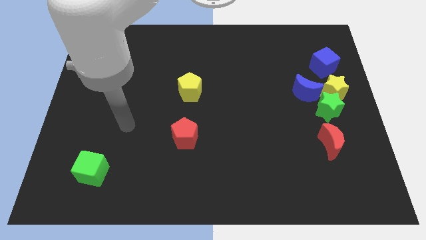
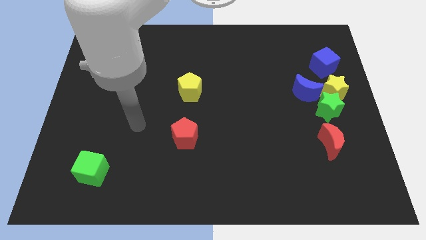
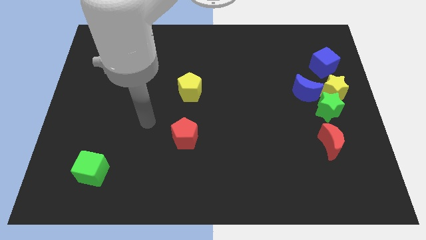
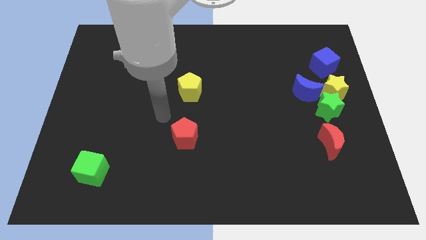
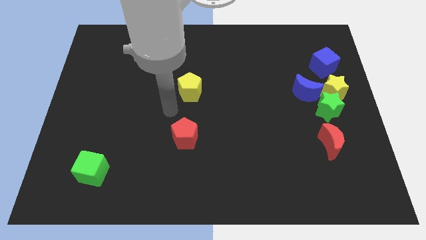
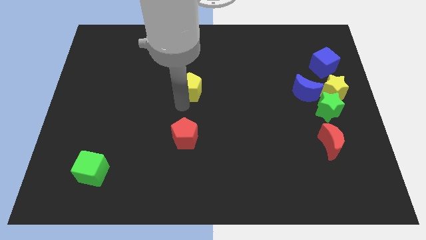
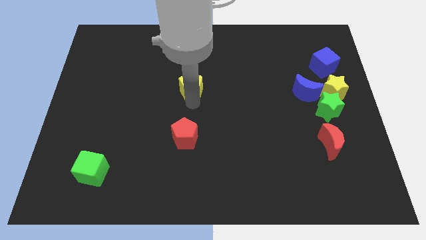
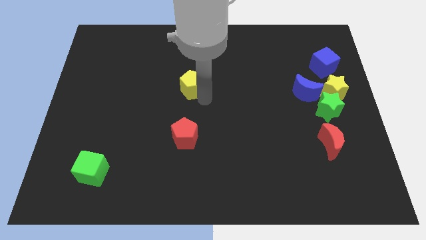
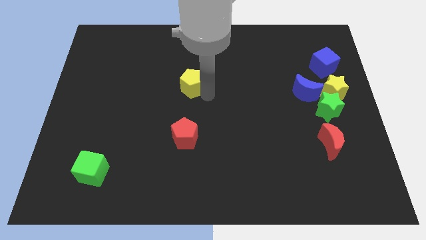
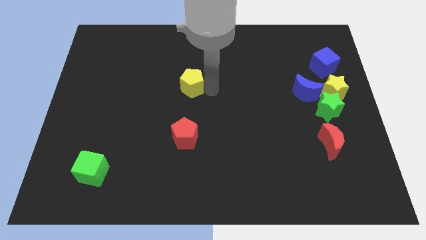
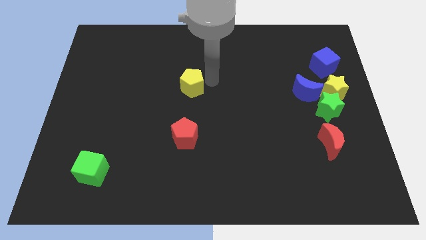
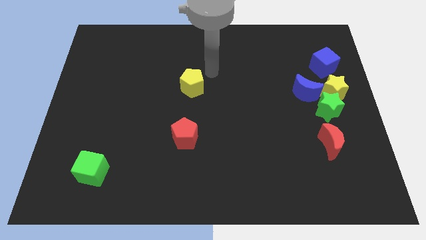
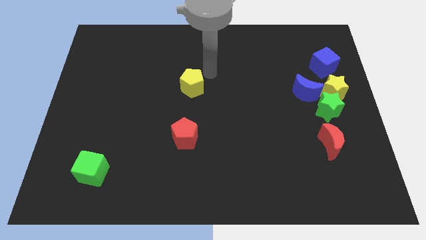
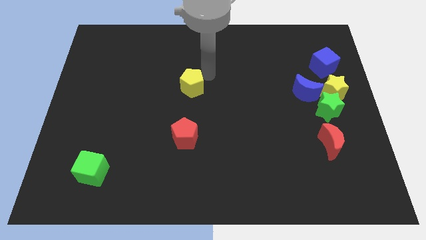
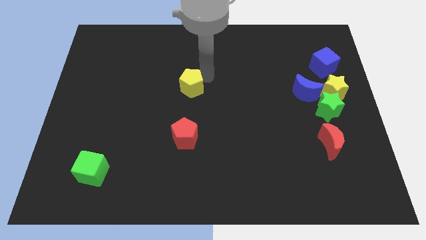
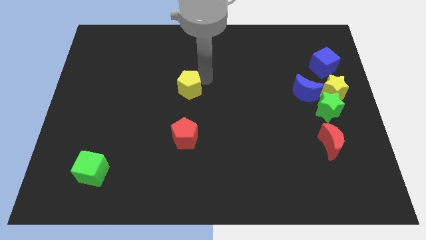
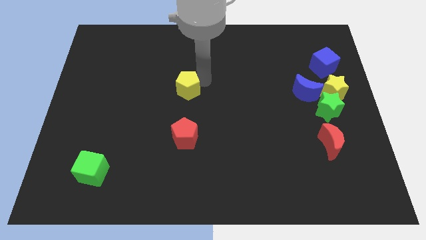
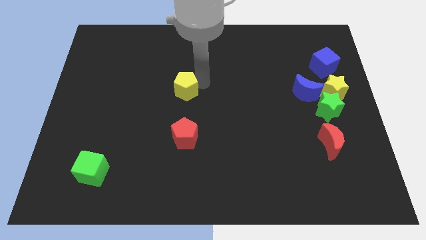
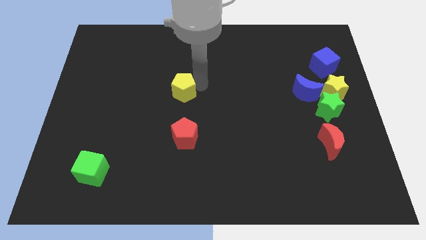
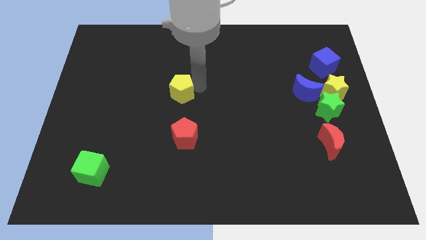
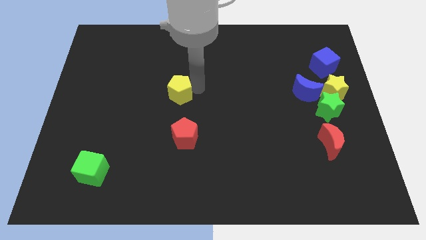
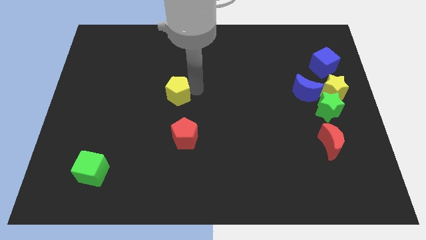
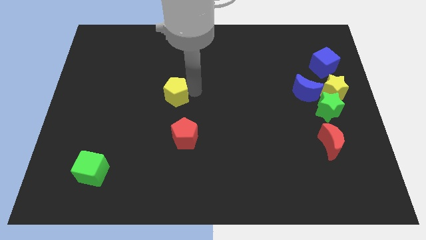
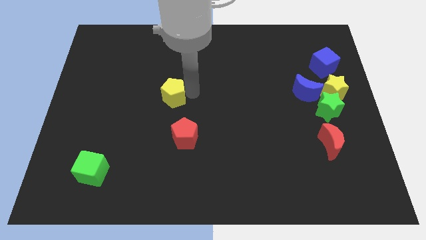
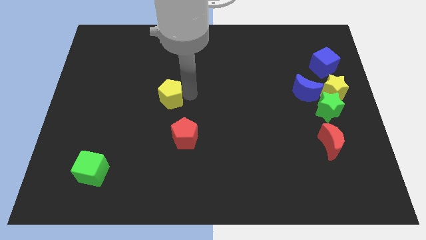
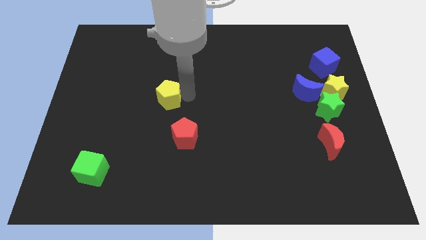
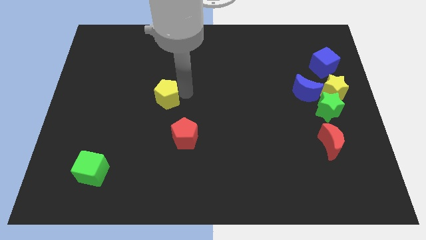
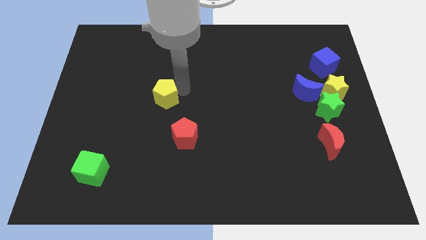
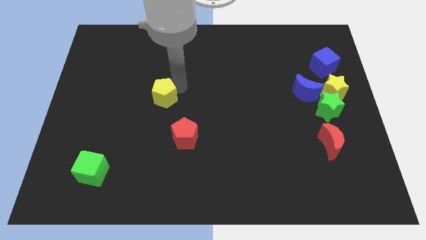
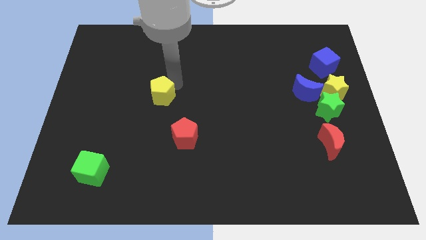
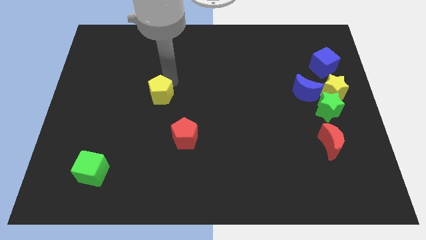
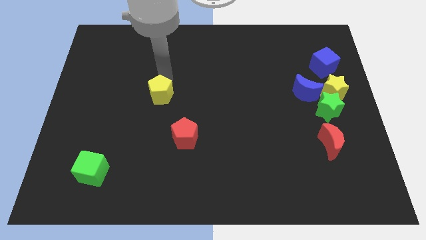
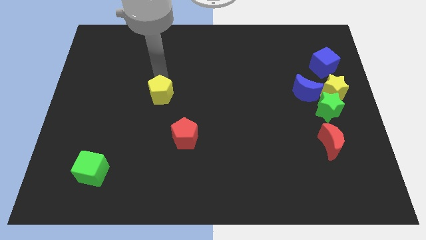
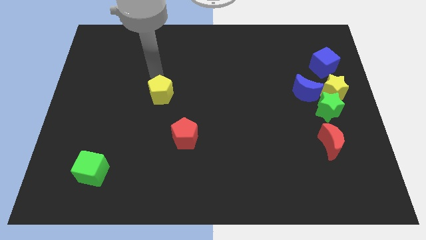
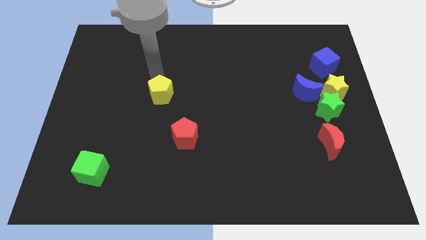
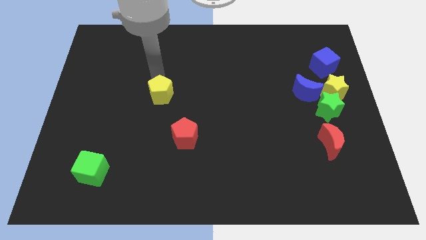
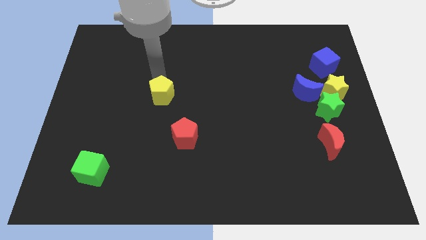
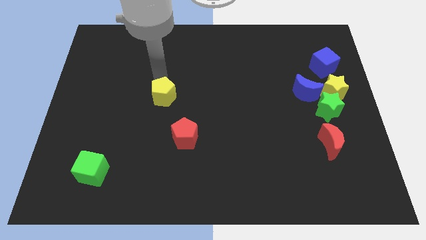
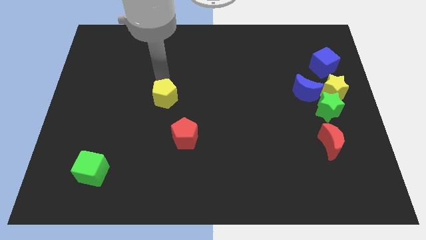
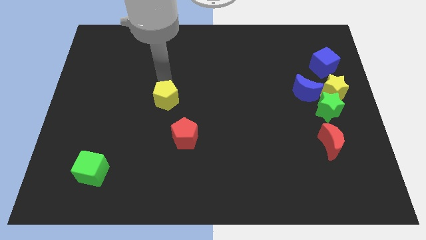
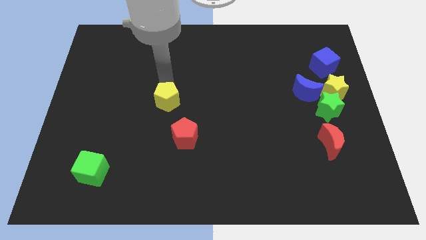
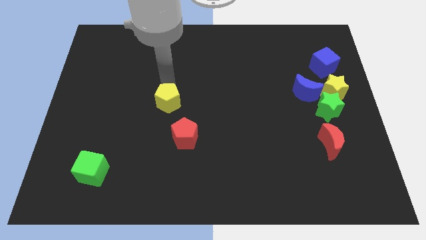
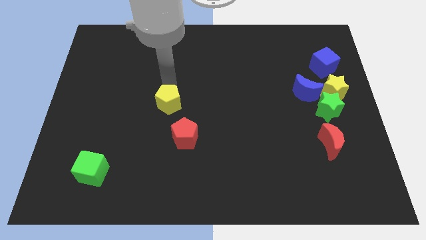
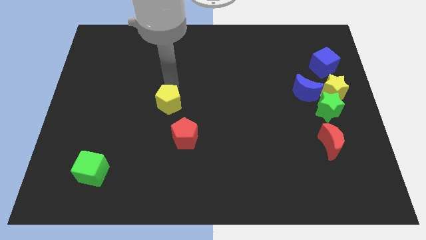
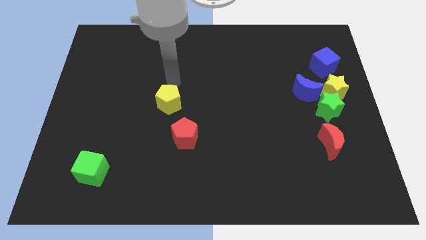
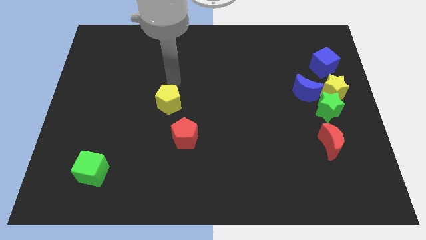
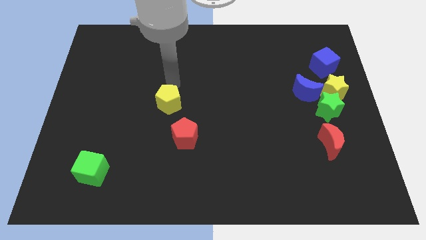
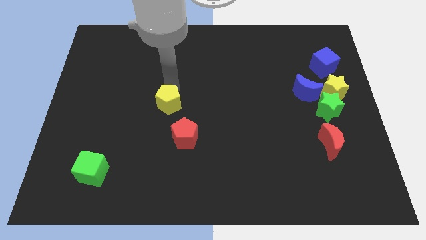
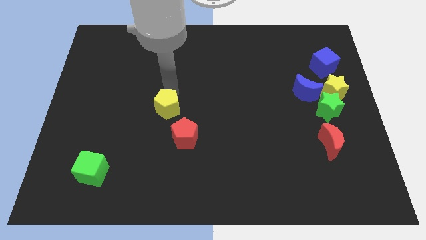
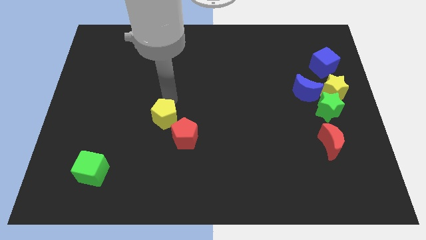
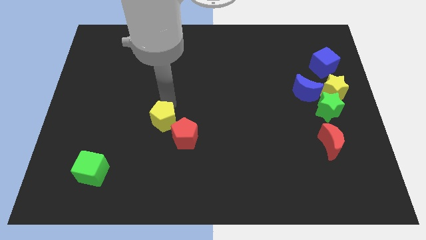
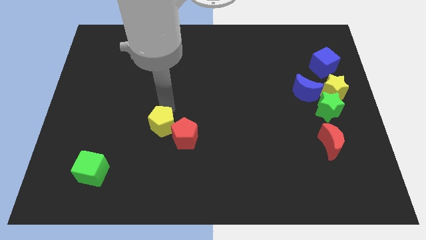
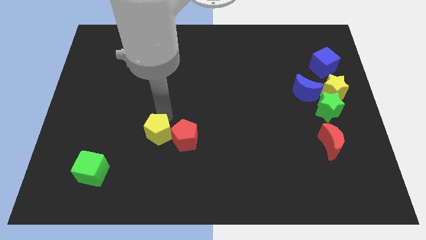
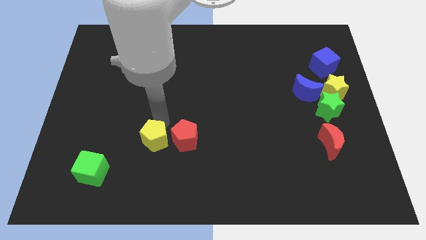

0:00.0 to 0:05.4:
push the yellow pentagon diagonally down and to the left of the red pentagon

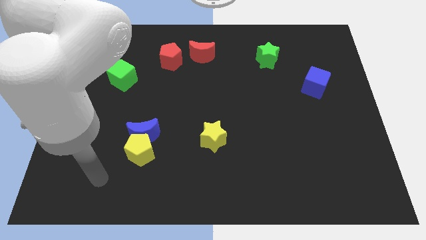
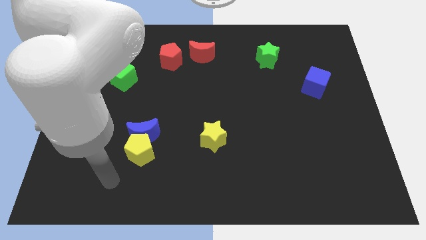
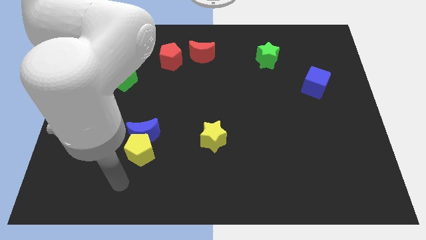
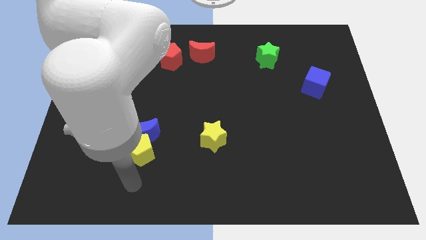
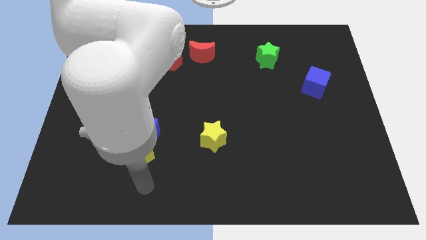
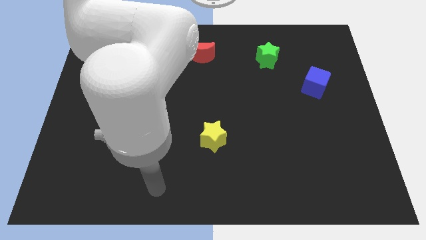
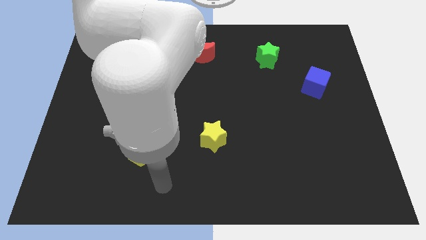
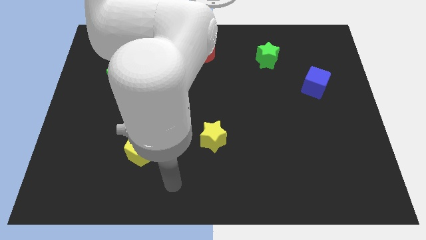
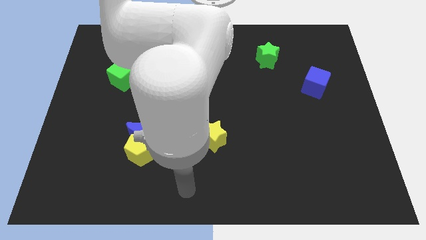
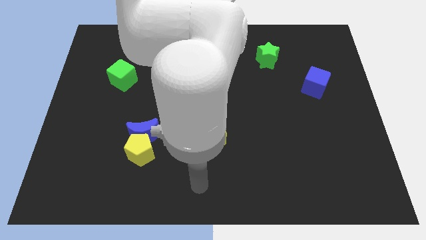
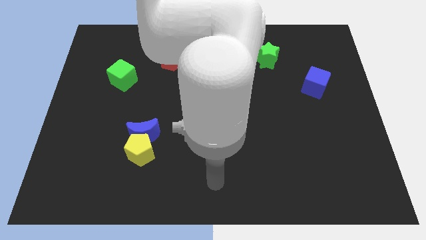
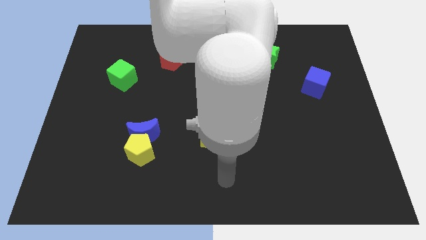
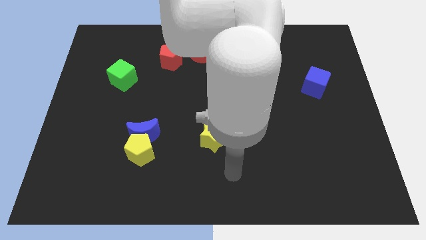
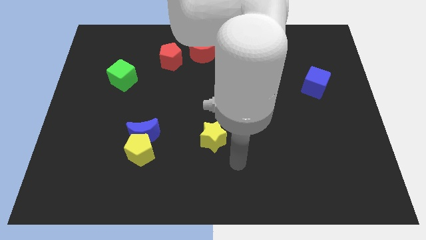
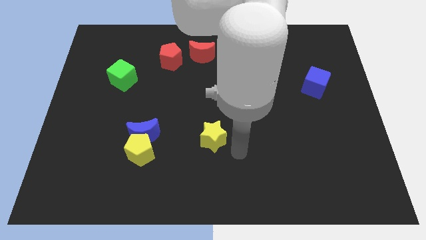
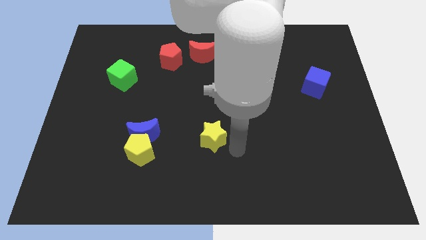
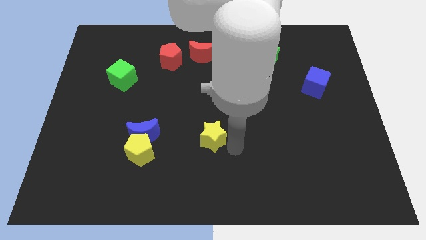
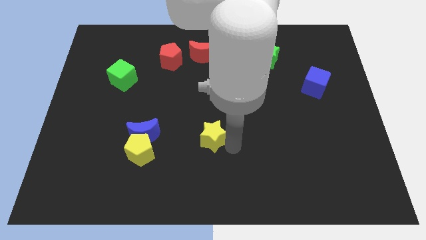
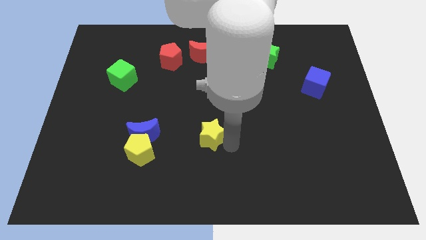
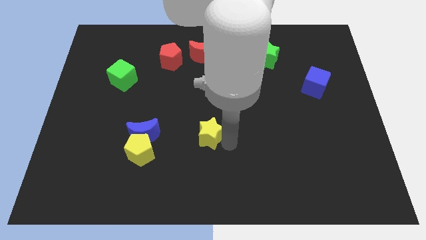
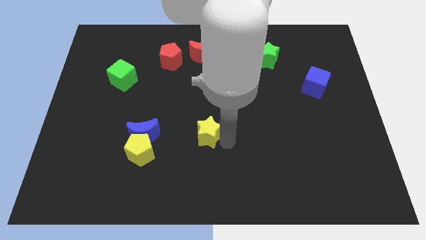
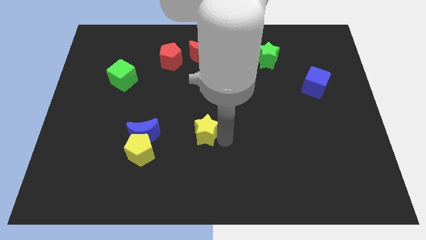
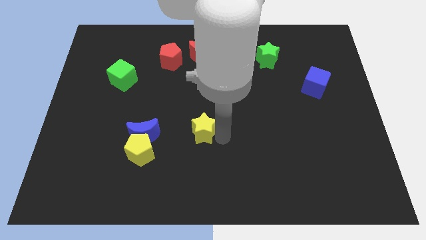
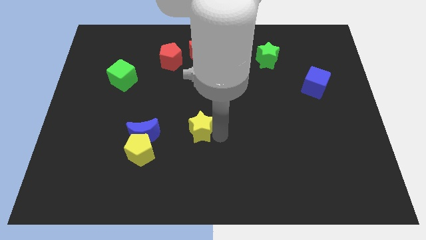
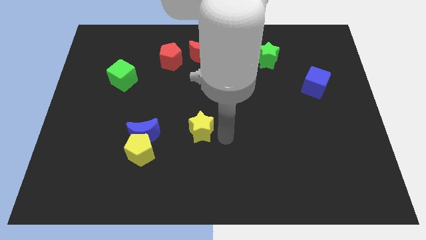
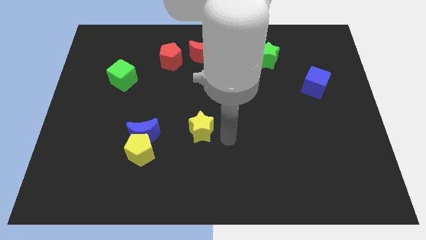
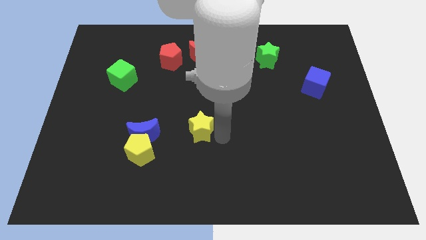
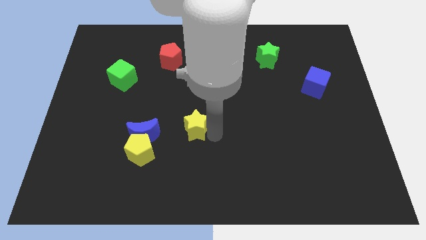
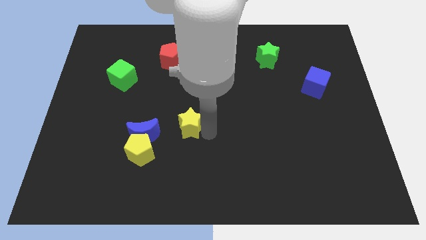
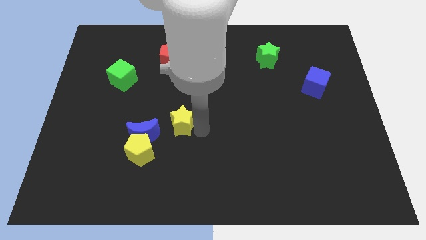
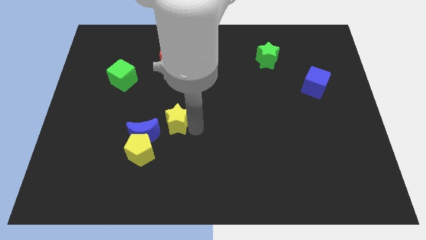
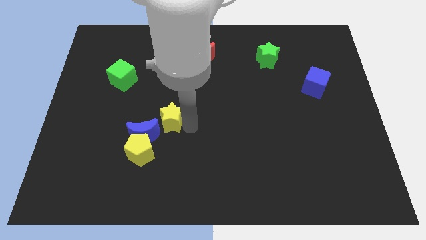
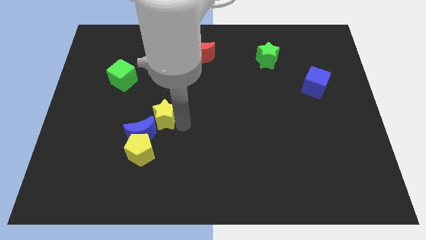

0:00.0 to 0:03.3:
move the yellow star to the top of the yellow pentagon
